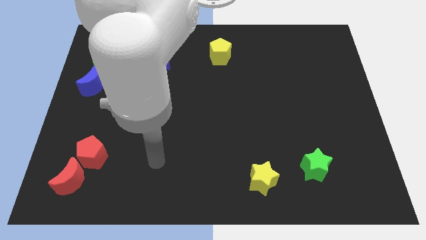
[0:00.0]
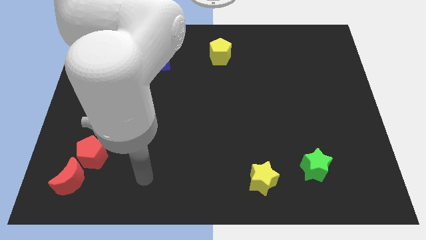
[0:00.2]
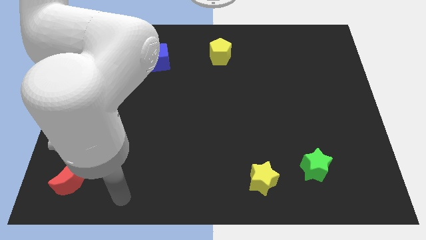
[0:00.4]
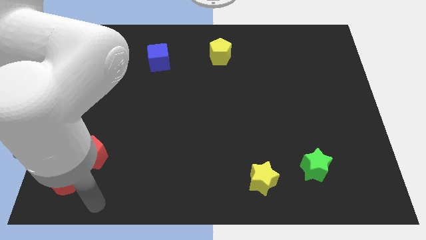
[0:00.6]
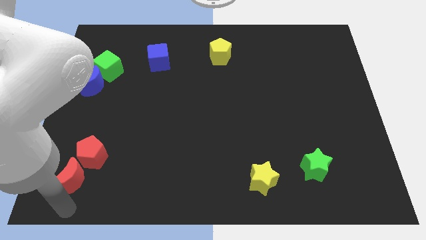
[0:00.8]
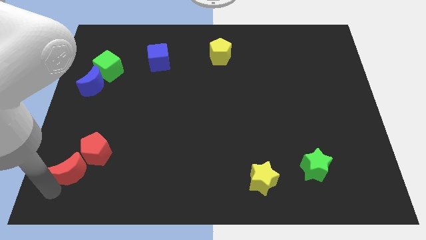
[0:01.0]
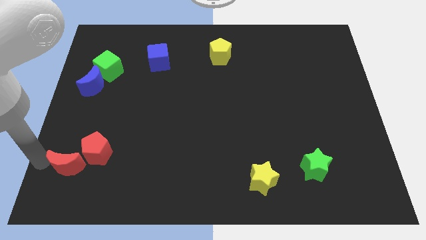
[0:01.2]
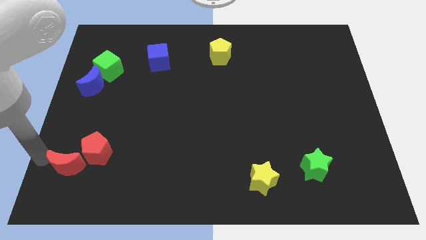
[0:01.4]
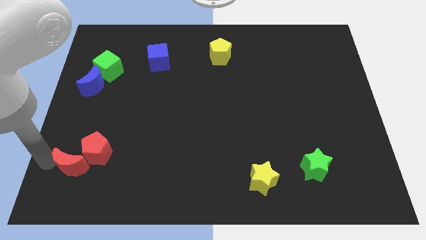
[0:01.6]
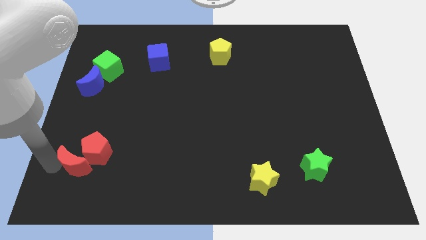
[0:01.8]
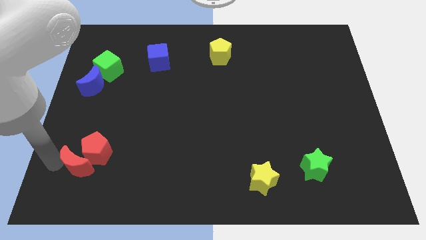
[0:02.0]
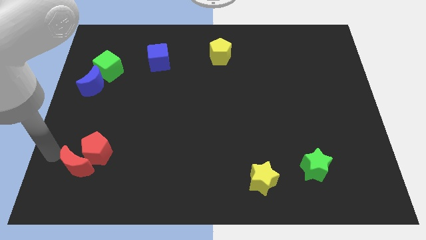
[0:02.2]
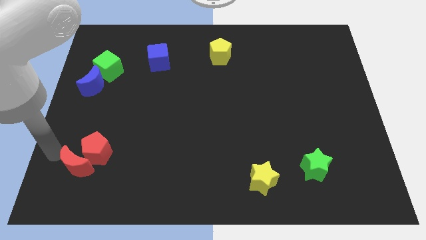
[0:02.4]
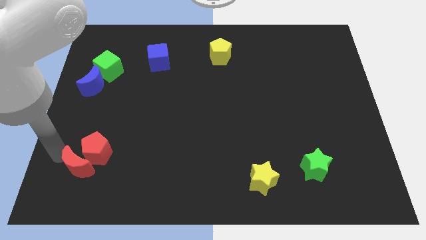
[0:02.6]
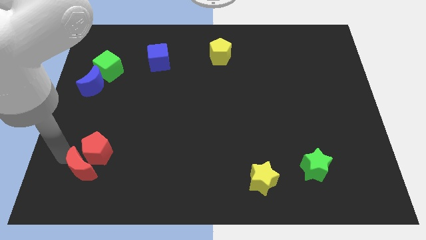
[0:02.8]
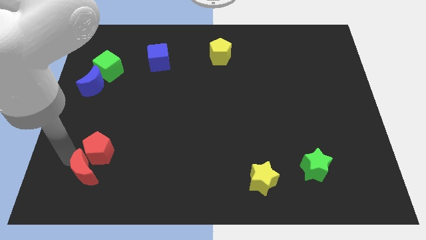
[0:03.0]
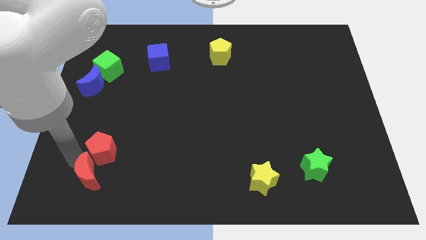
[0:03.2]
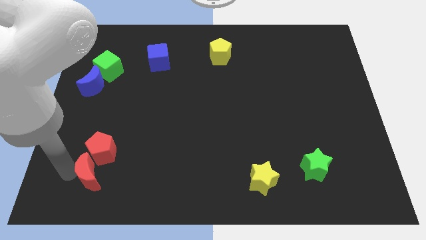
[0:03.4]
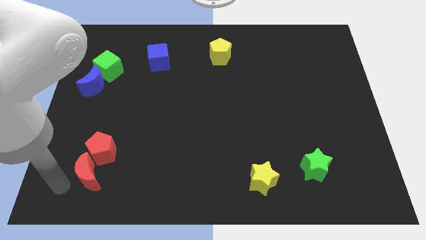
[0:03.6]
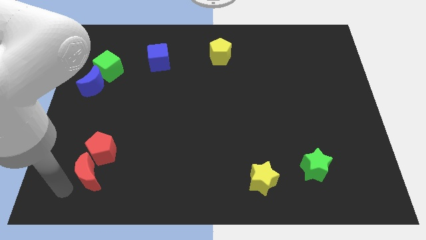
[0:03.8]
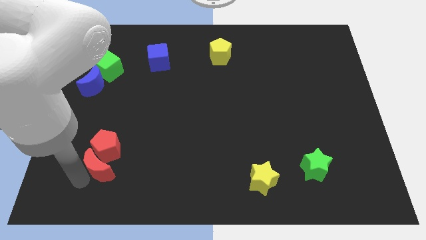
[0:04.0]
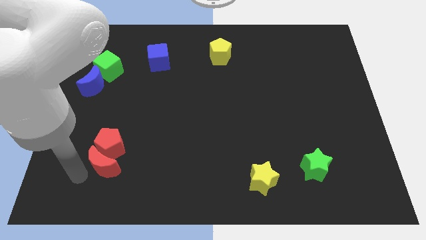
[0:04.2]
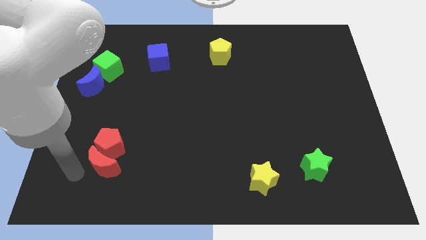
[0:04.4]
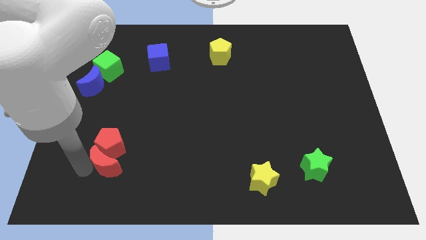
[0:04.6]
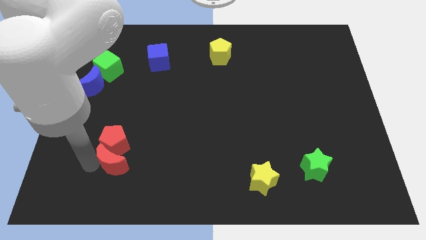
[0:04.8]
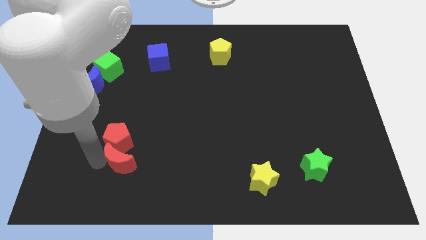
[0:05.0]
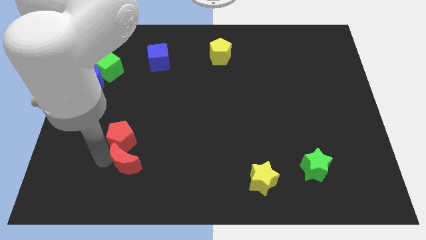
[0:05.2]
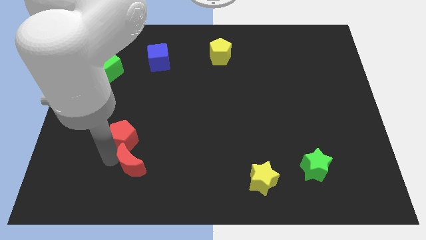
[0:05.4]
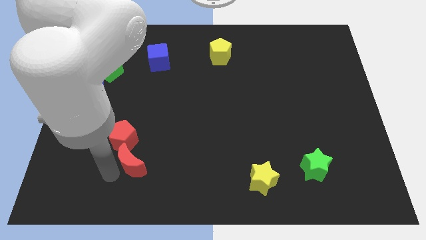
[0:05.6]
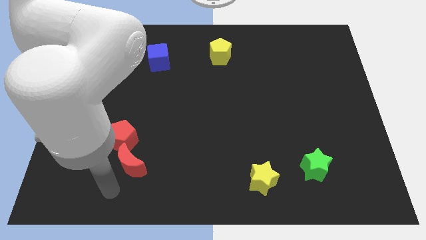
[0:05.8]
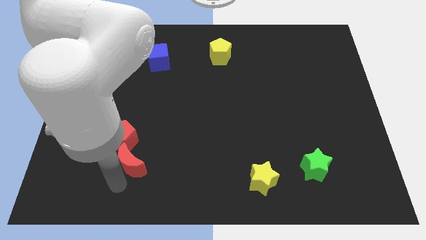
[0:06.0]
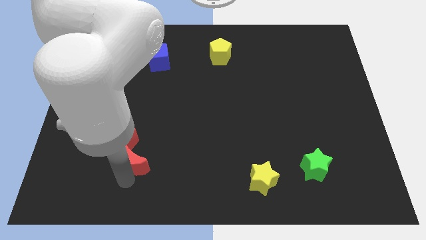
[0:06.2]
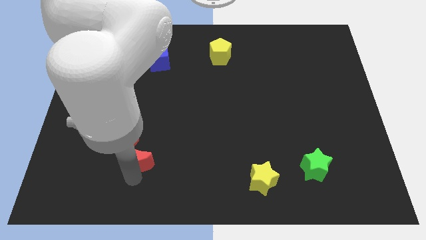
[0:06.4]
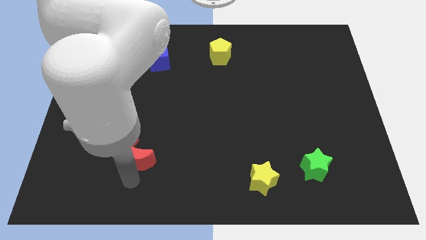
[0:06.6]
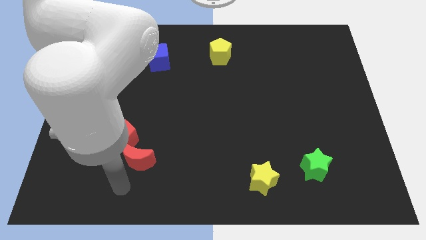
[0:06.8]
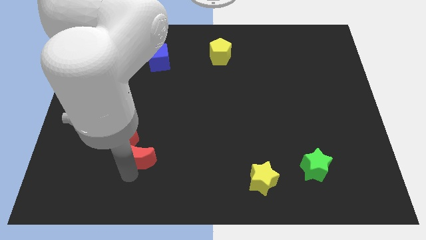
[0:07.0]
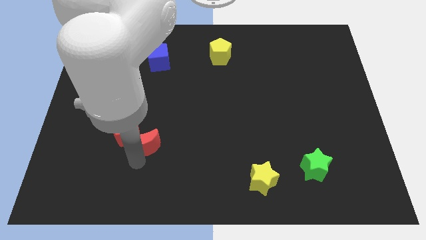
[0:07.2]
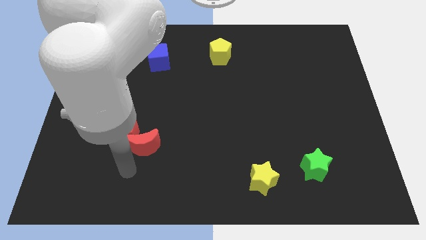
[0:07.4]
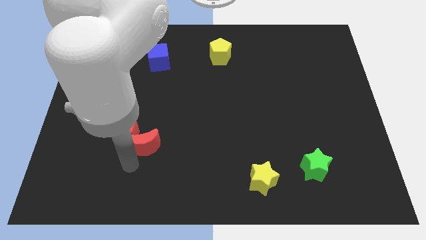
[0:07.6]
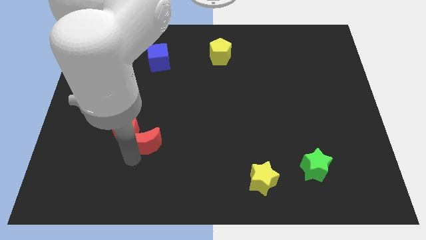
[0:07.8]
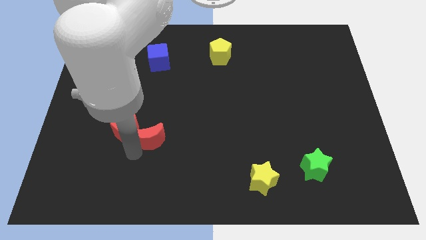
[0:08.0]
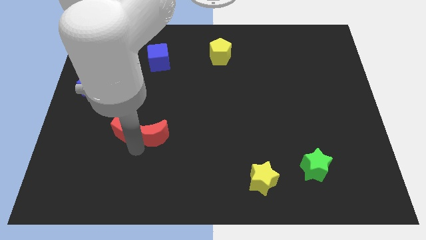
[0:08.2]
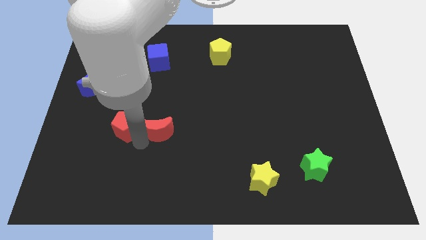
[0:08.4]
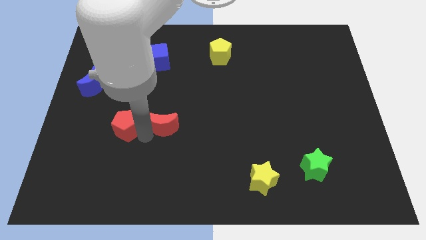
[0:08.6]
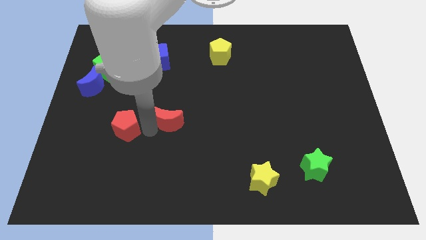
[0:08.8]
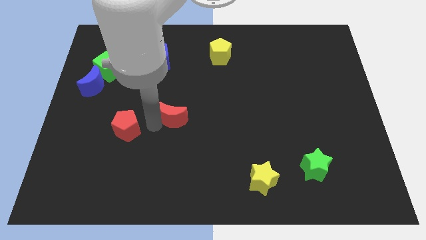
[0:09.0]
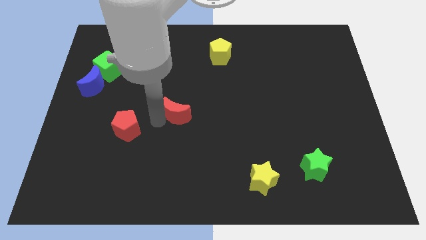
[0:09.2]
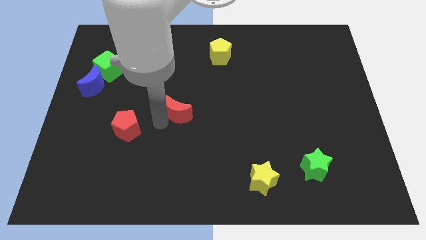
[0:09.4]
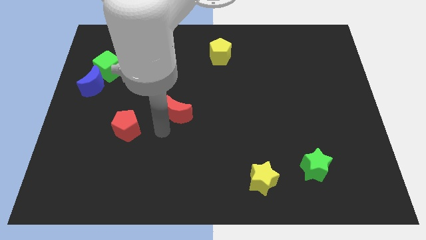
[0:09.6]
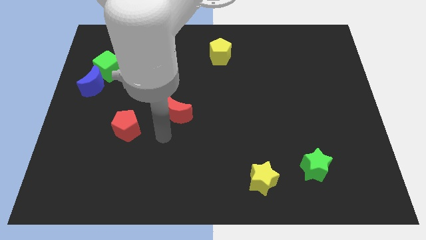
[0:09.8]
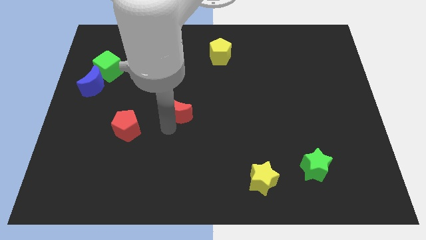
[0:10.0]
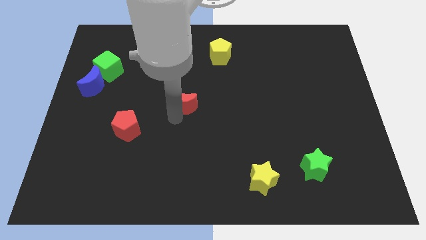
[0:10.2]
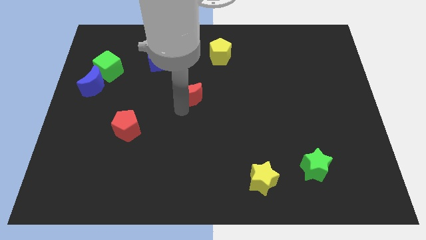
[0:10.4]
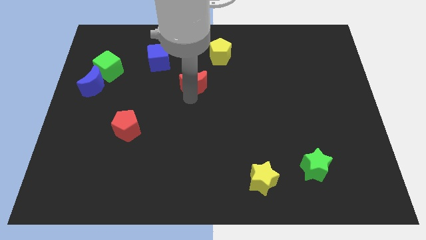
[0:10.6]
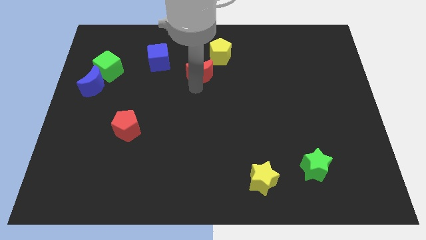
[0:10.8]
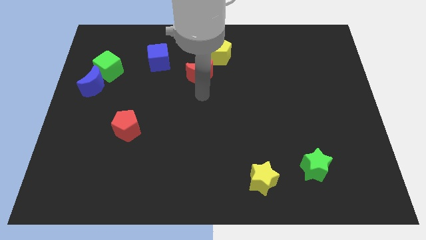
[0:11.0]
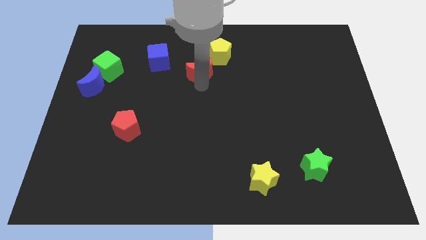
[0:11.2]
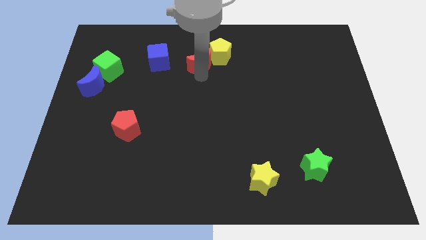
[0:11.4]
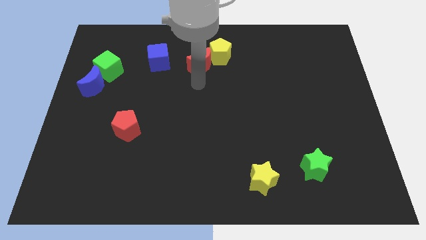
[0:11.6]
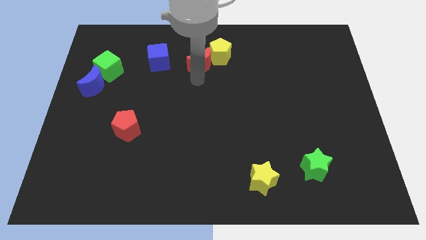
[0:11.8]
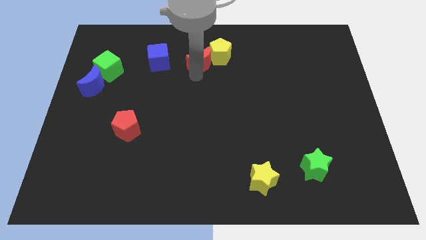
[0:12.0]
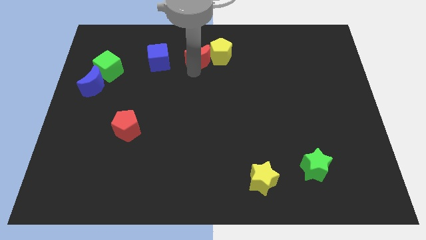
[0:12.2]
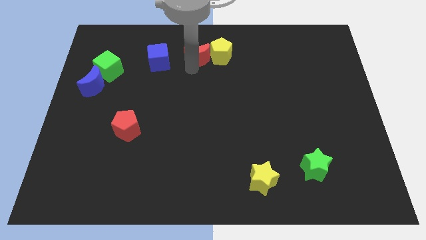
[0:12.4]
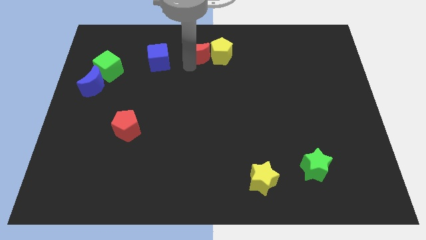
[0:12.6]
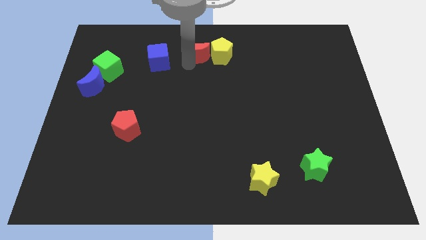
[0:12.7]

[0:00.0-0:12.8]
push the red moon to the top side
